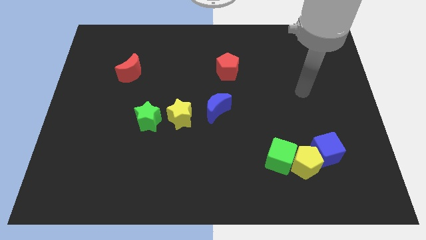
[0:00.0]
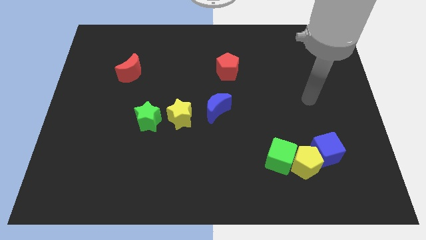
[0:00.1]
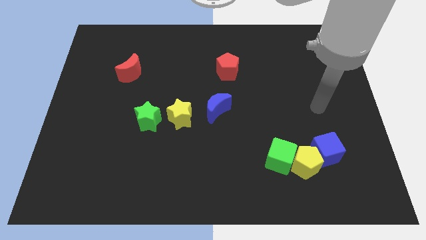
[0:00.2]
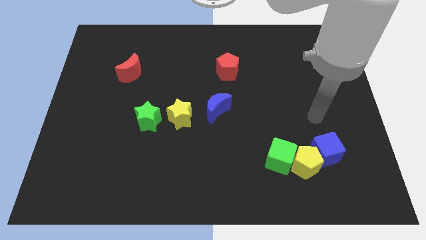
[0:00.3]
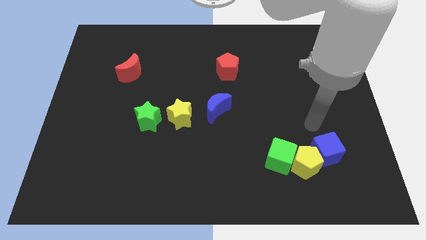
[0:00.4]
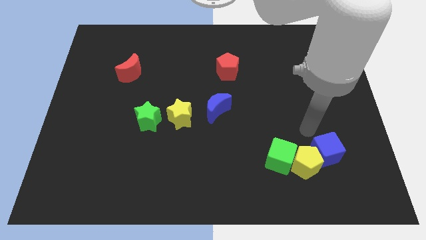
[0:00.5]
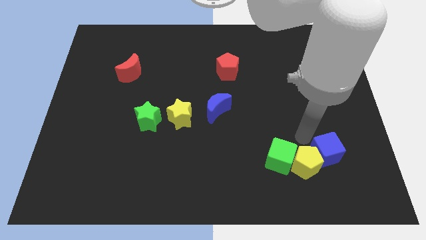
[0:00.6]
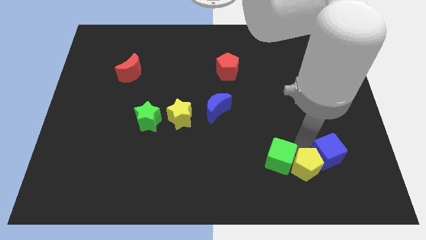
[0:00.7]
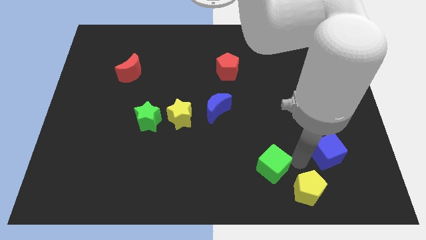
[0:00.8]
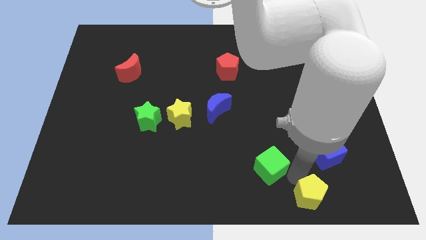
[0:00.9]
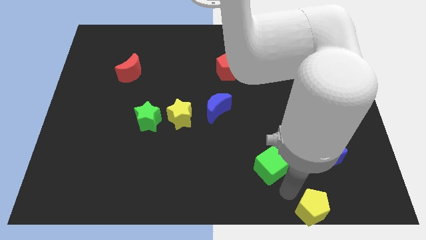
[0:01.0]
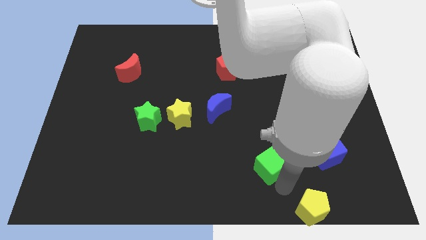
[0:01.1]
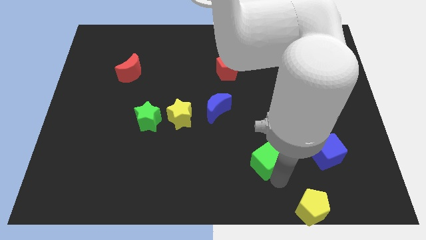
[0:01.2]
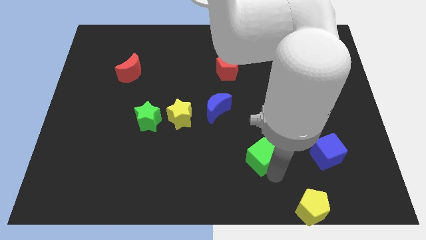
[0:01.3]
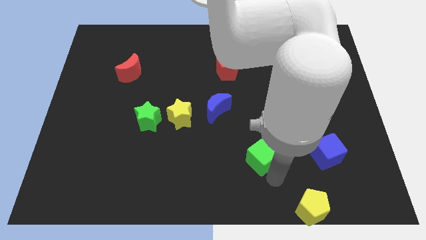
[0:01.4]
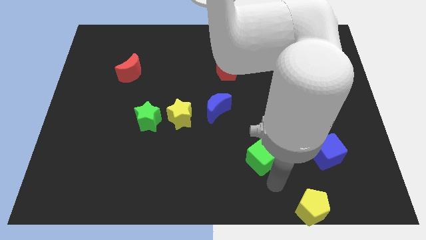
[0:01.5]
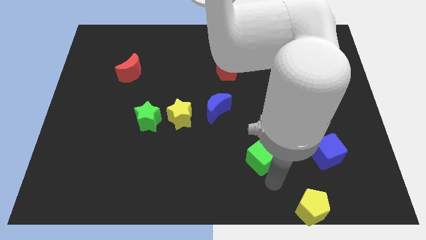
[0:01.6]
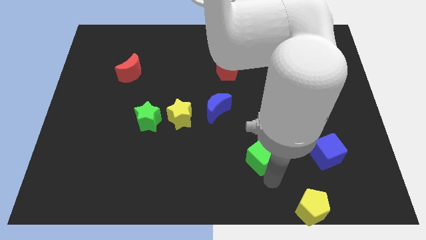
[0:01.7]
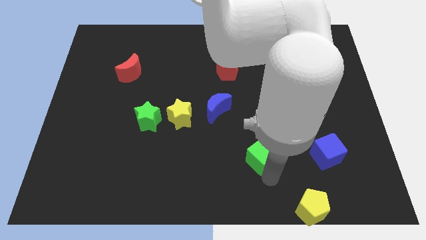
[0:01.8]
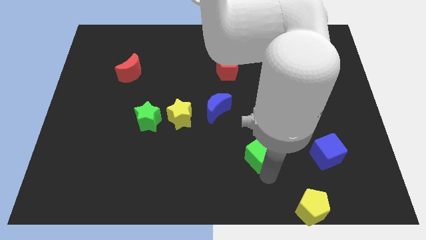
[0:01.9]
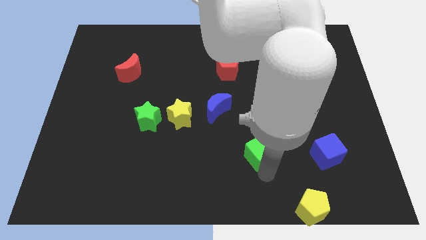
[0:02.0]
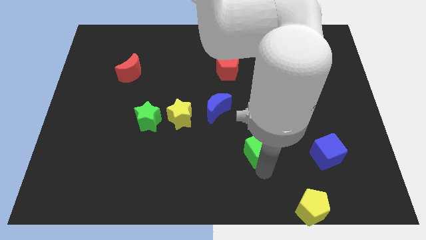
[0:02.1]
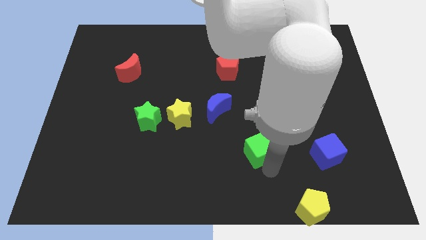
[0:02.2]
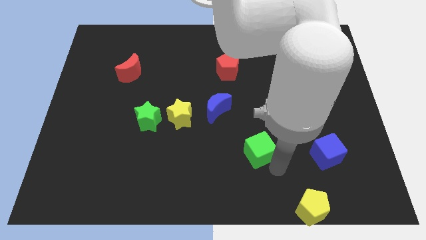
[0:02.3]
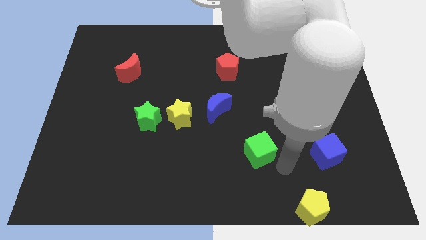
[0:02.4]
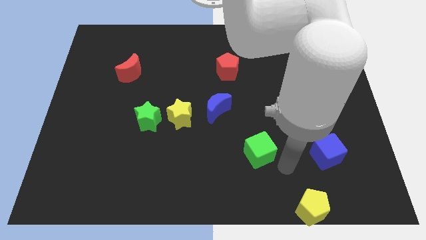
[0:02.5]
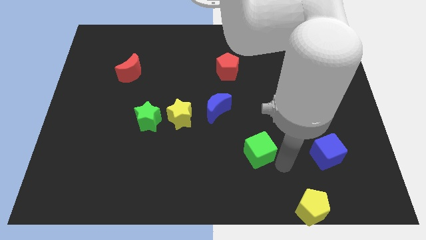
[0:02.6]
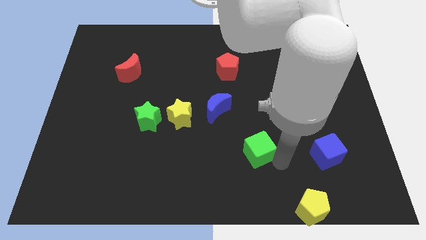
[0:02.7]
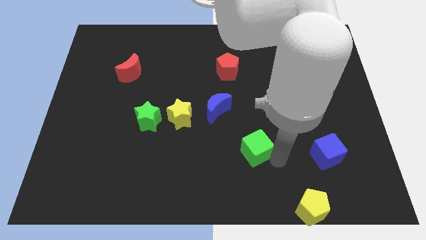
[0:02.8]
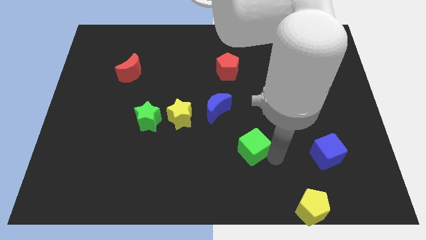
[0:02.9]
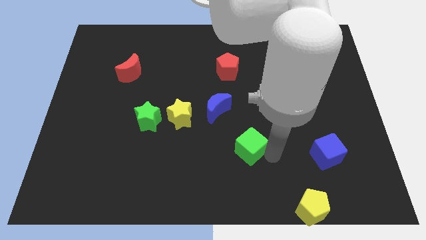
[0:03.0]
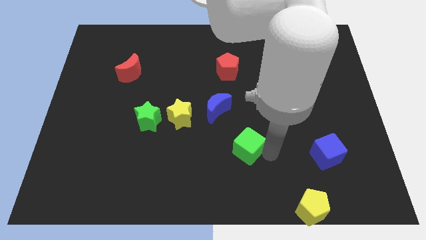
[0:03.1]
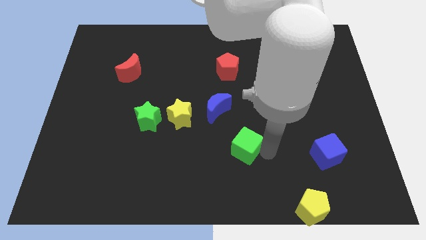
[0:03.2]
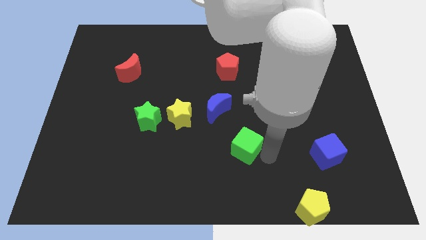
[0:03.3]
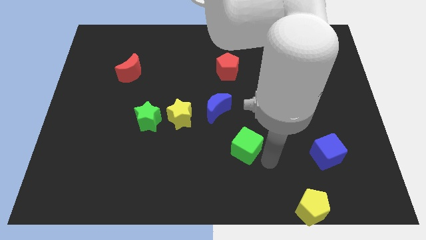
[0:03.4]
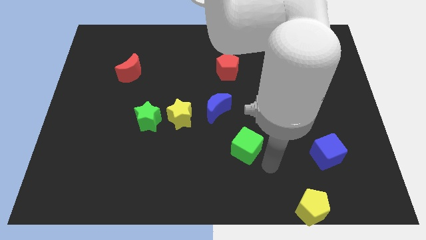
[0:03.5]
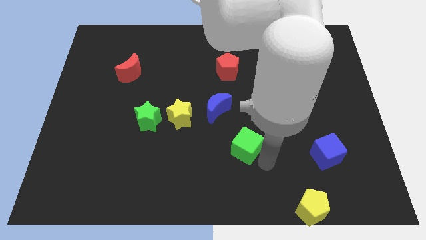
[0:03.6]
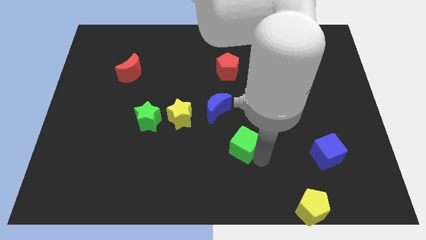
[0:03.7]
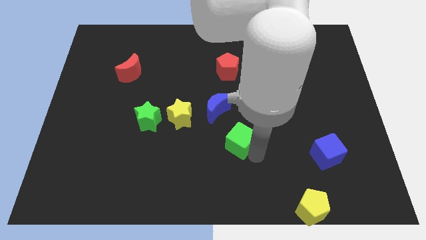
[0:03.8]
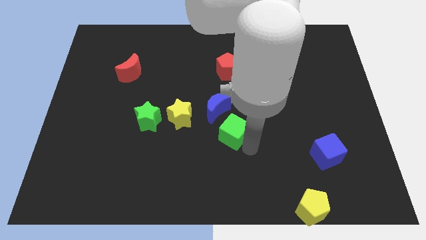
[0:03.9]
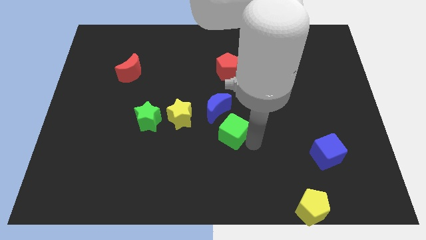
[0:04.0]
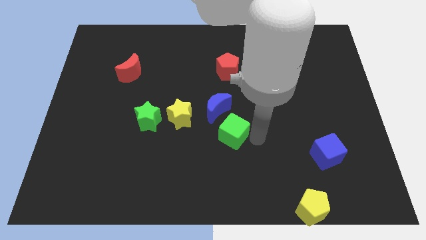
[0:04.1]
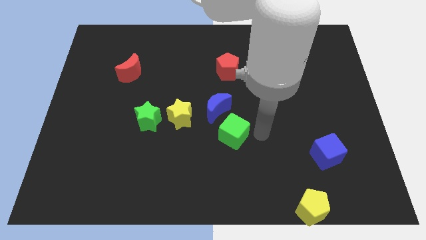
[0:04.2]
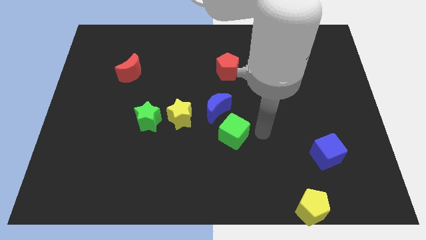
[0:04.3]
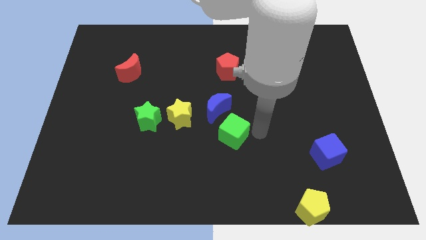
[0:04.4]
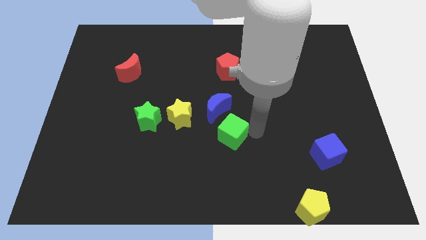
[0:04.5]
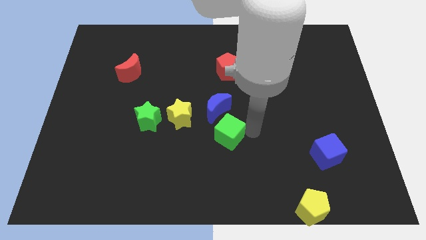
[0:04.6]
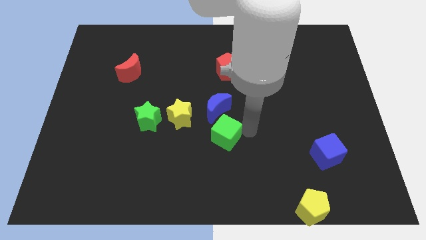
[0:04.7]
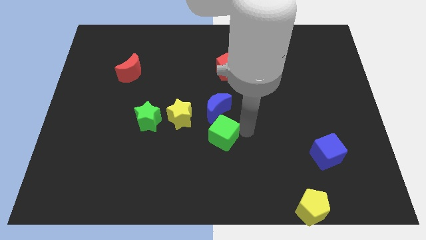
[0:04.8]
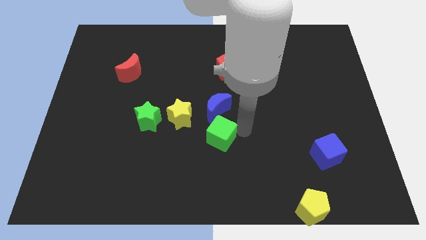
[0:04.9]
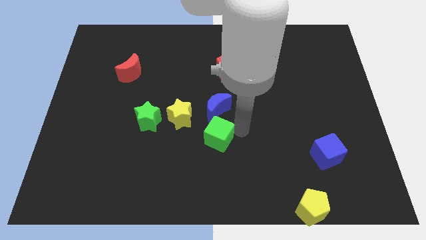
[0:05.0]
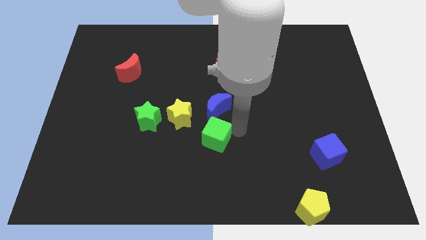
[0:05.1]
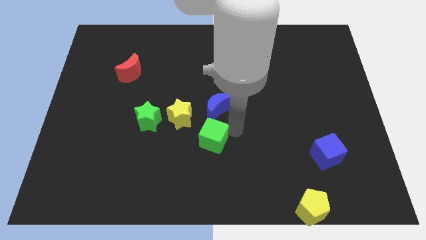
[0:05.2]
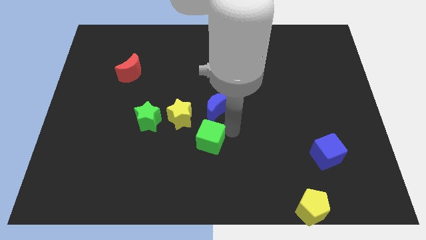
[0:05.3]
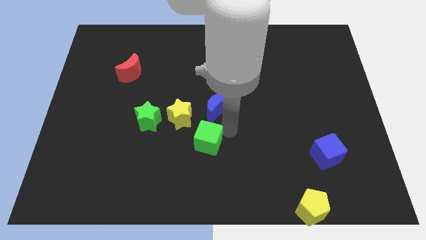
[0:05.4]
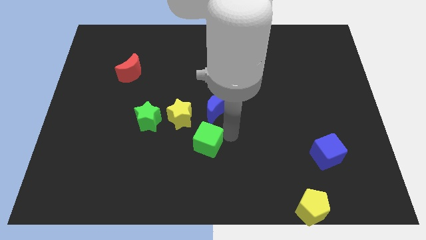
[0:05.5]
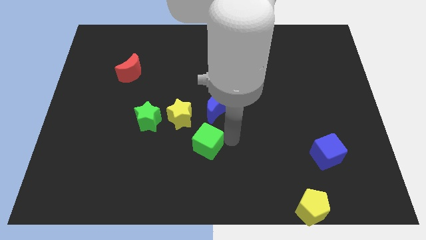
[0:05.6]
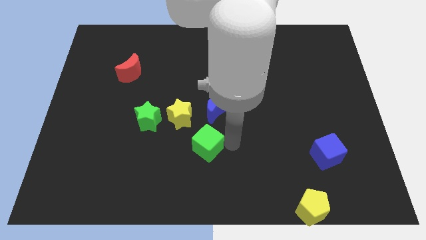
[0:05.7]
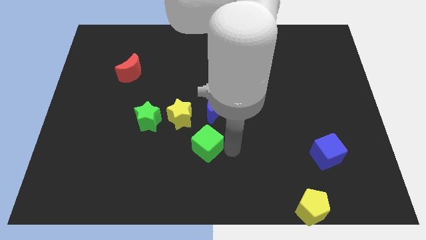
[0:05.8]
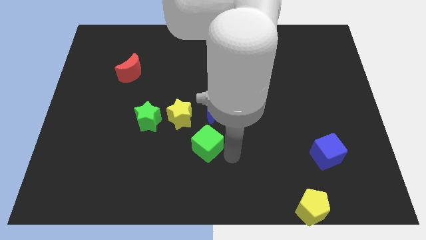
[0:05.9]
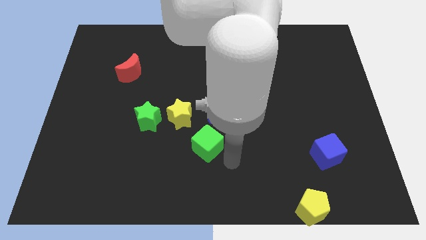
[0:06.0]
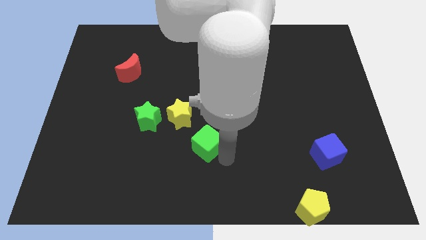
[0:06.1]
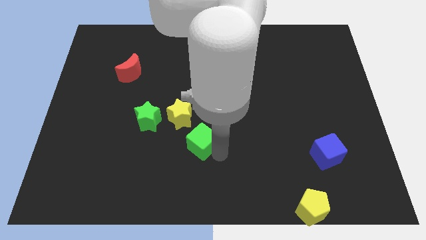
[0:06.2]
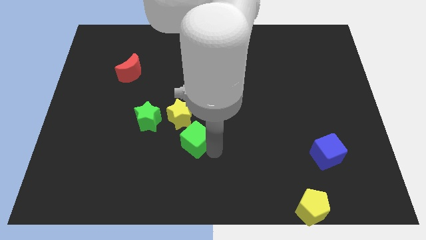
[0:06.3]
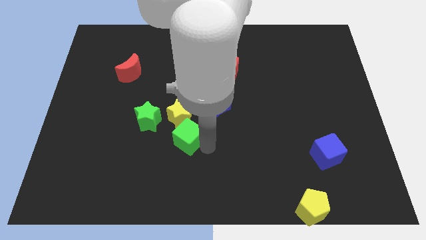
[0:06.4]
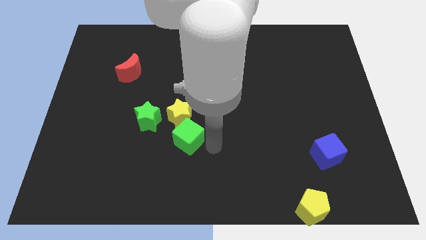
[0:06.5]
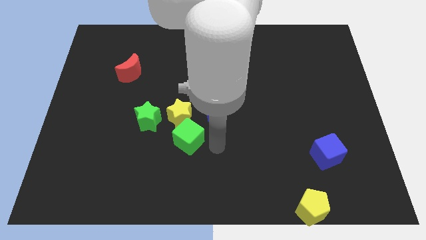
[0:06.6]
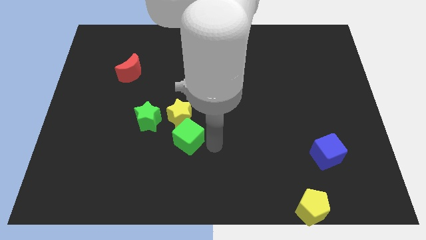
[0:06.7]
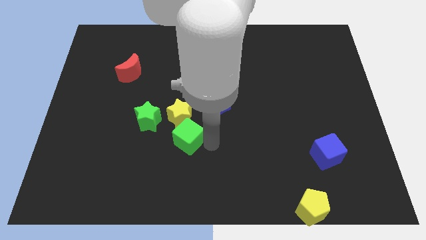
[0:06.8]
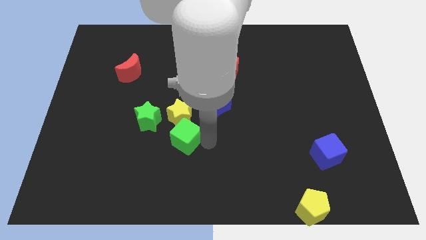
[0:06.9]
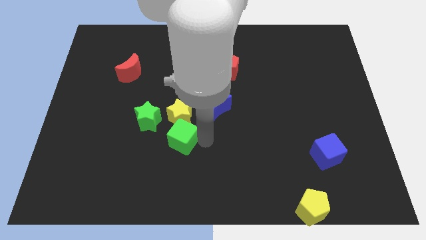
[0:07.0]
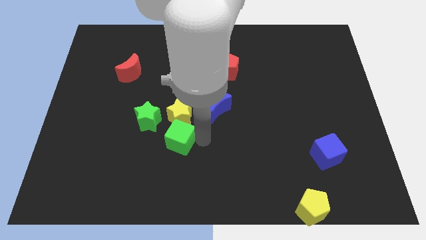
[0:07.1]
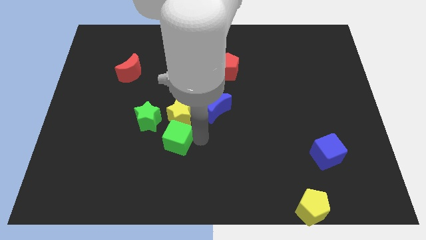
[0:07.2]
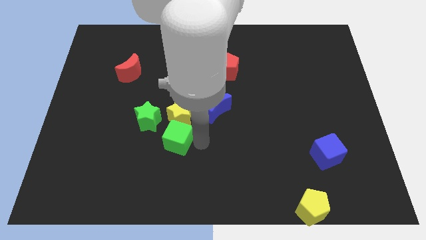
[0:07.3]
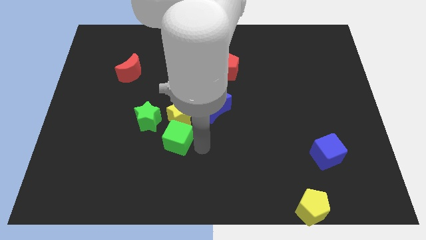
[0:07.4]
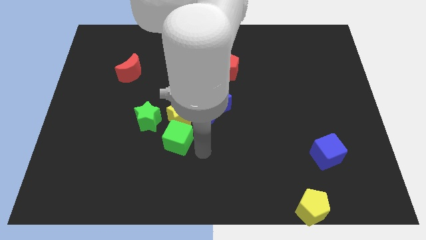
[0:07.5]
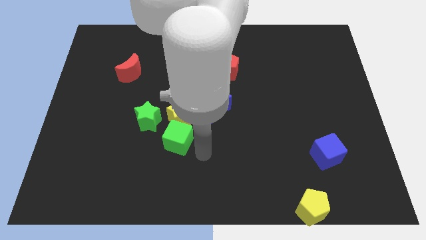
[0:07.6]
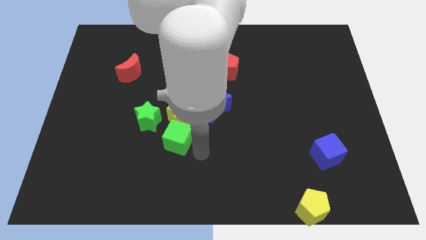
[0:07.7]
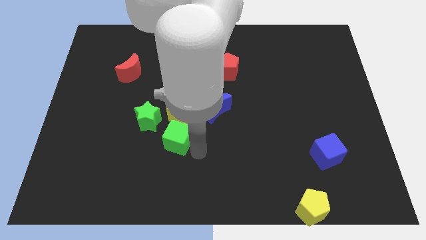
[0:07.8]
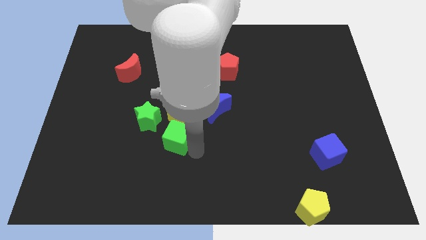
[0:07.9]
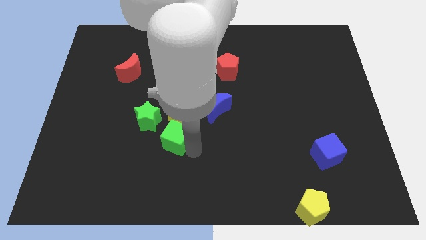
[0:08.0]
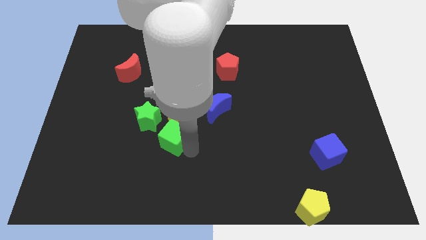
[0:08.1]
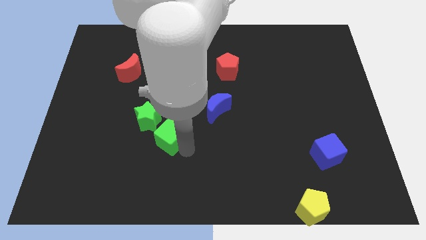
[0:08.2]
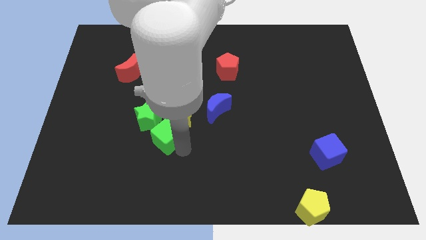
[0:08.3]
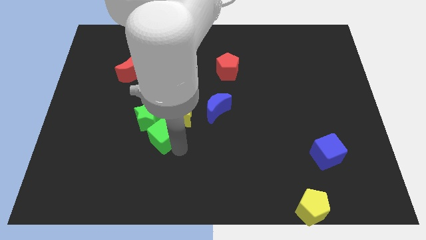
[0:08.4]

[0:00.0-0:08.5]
move the green cube next to the green star
